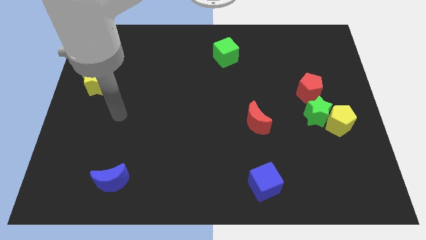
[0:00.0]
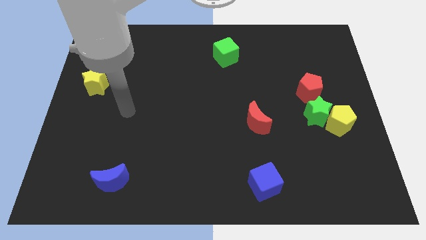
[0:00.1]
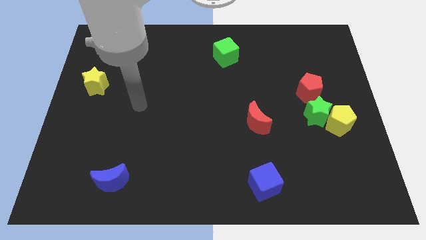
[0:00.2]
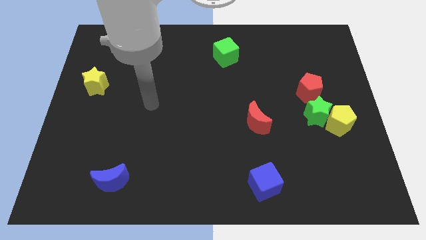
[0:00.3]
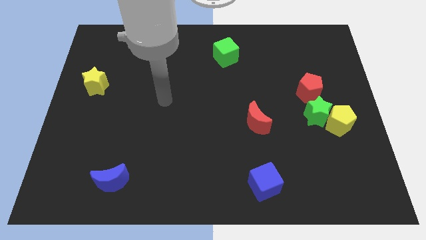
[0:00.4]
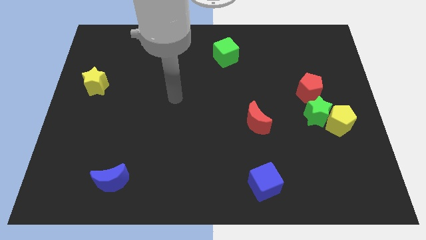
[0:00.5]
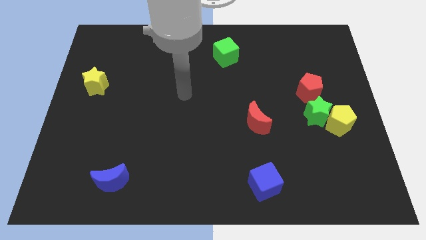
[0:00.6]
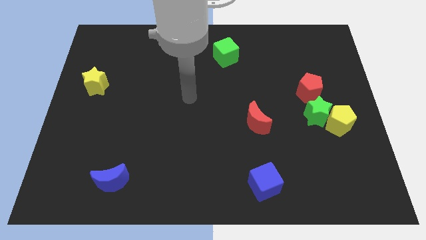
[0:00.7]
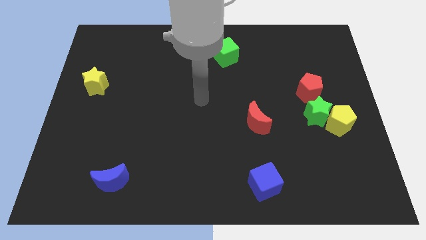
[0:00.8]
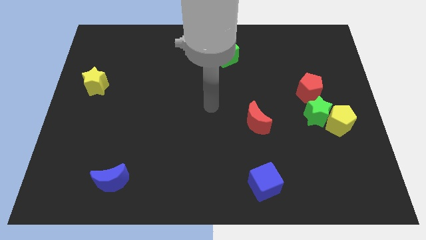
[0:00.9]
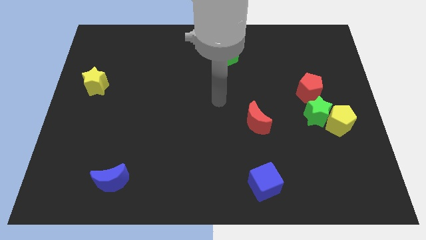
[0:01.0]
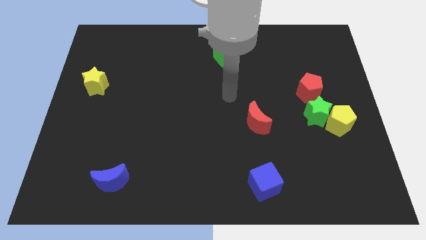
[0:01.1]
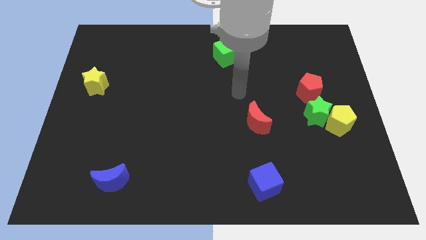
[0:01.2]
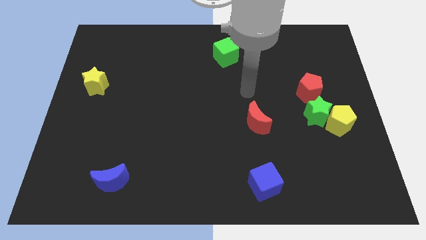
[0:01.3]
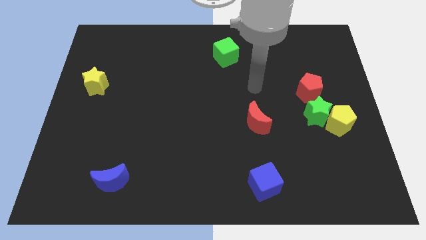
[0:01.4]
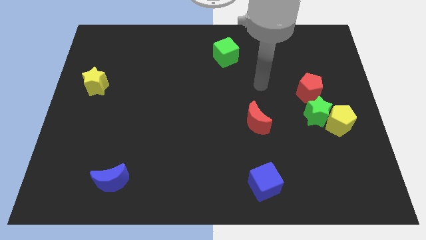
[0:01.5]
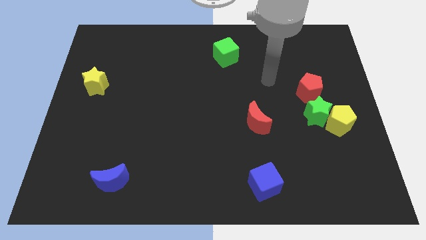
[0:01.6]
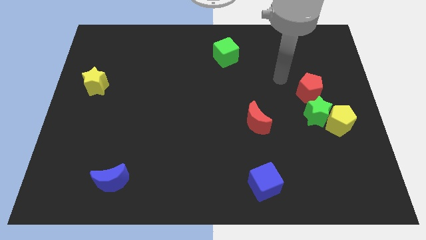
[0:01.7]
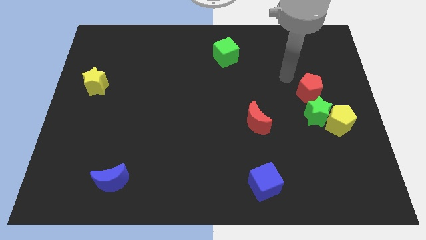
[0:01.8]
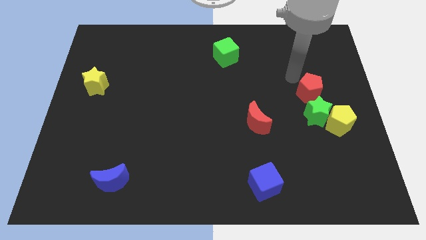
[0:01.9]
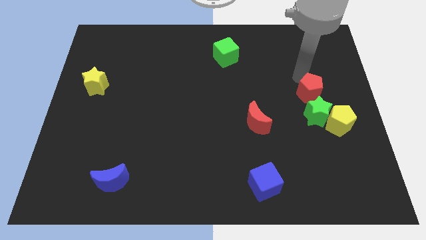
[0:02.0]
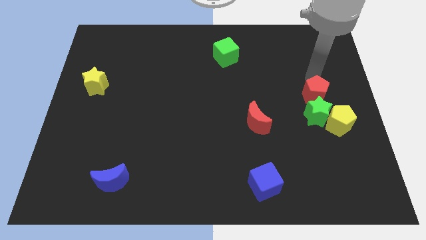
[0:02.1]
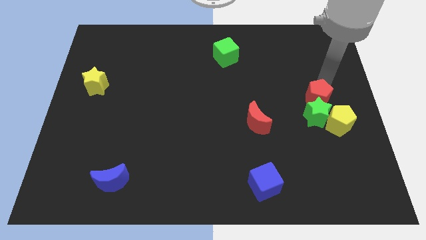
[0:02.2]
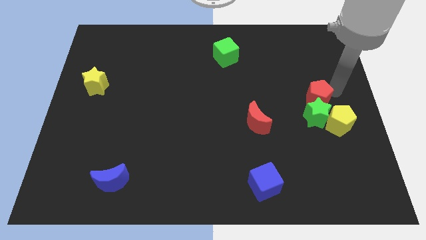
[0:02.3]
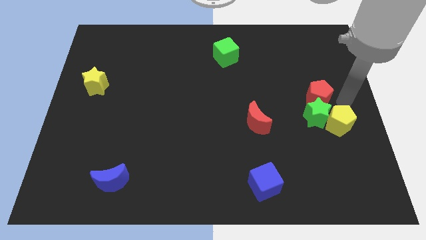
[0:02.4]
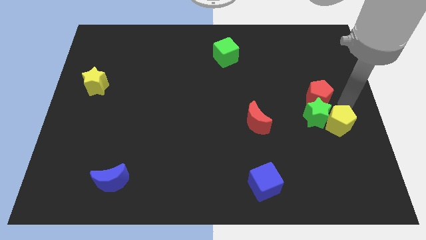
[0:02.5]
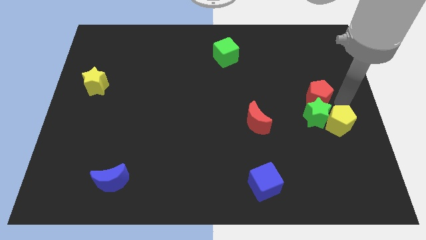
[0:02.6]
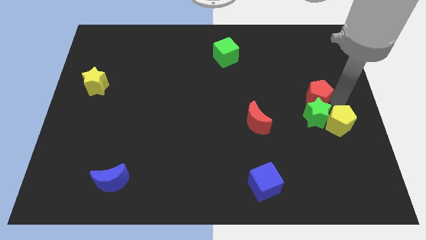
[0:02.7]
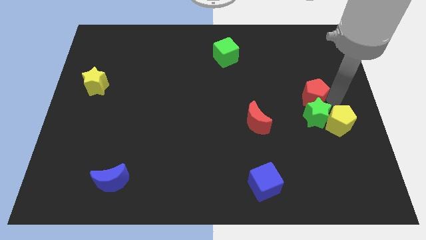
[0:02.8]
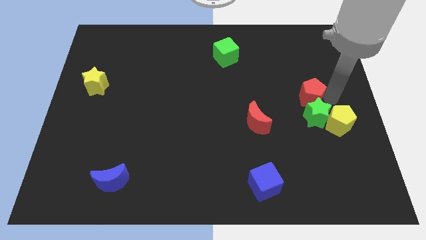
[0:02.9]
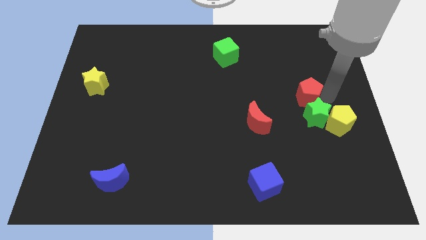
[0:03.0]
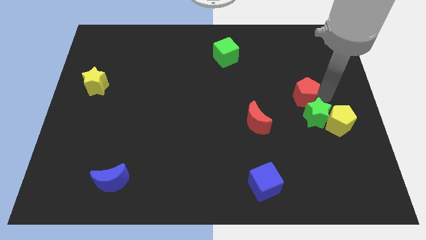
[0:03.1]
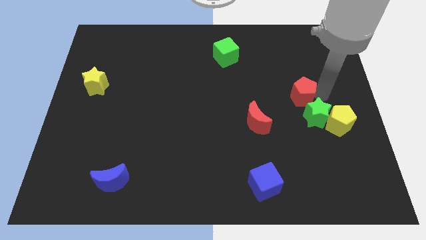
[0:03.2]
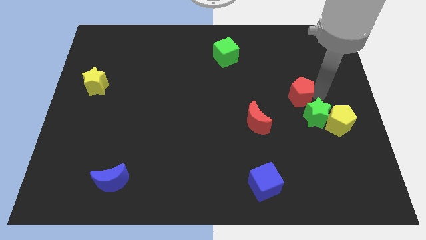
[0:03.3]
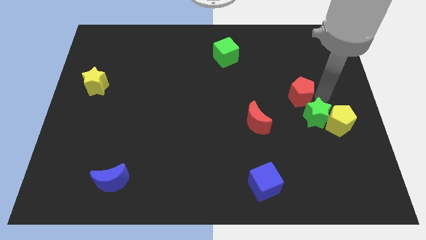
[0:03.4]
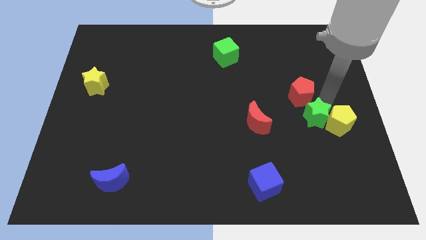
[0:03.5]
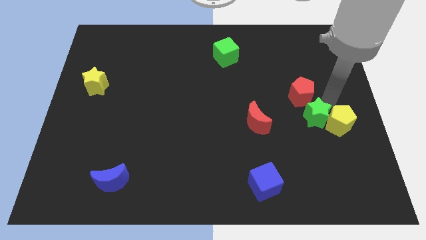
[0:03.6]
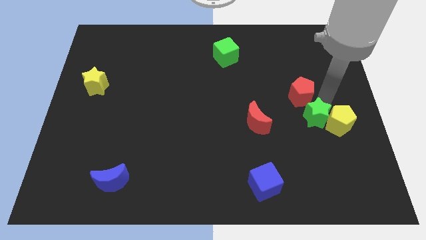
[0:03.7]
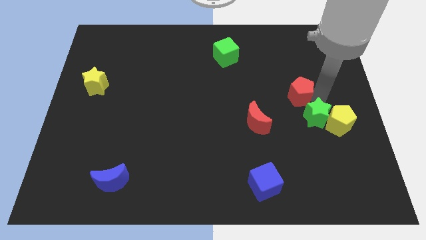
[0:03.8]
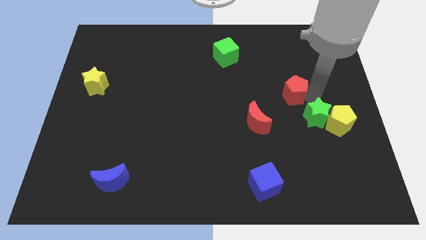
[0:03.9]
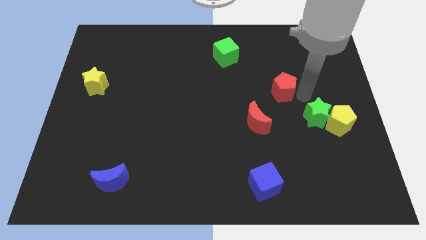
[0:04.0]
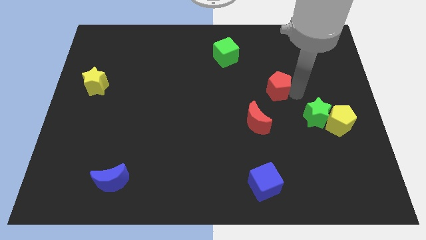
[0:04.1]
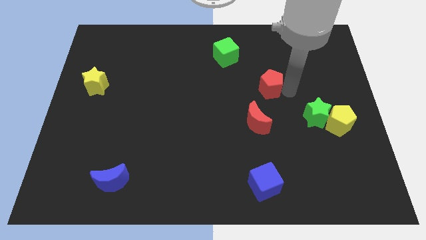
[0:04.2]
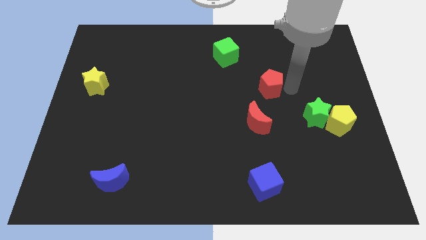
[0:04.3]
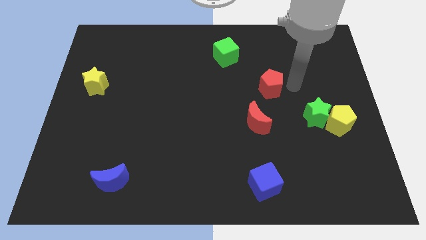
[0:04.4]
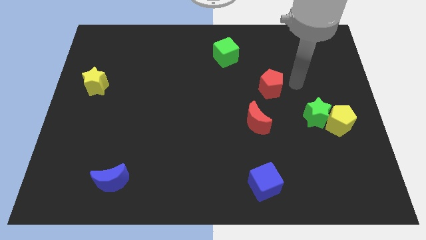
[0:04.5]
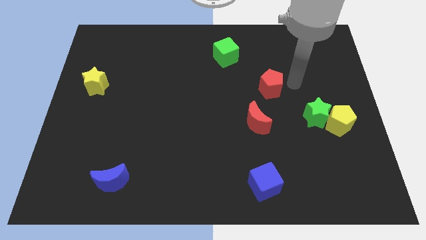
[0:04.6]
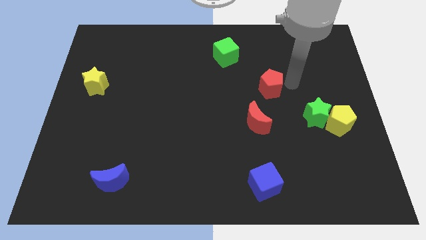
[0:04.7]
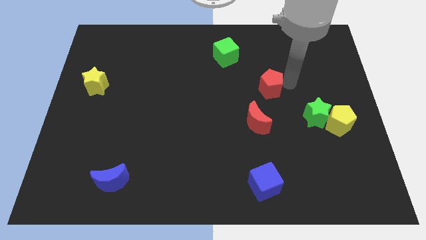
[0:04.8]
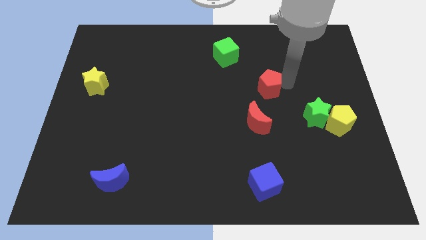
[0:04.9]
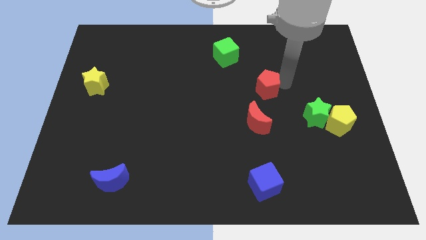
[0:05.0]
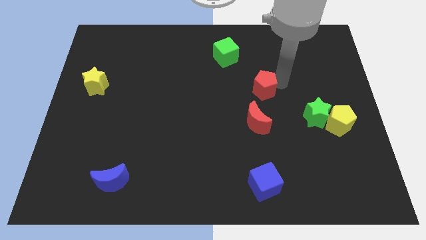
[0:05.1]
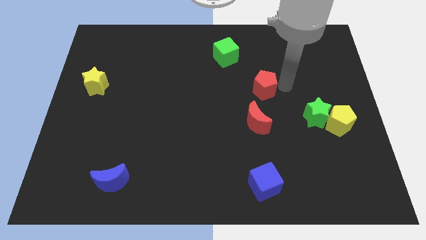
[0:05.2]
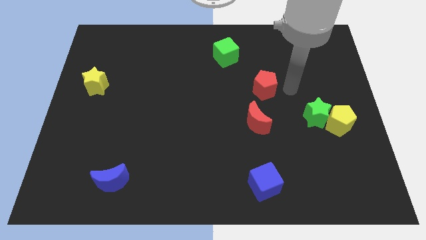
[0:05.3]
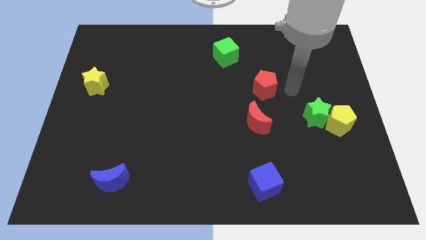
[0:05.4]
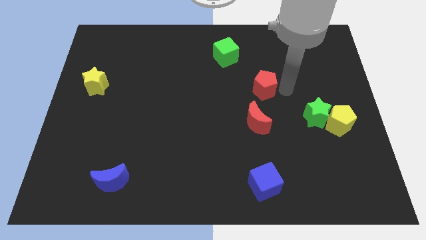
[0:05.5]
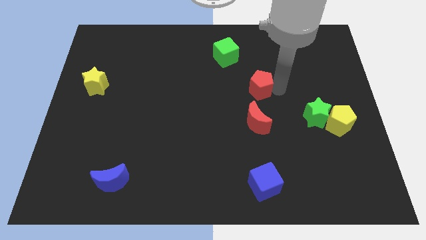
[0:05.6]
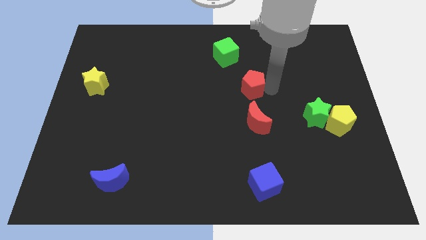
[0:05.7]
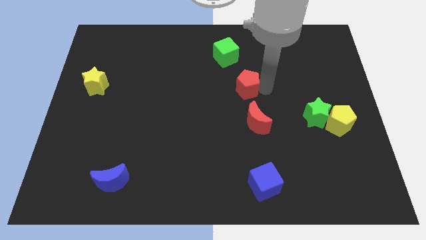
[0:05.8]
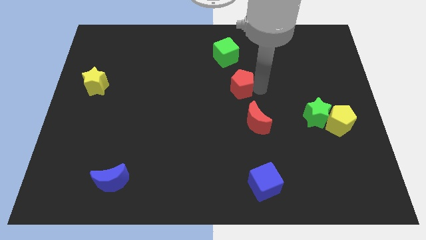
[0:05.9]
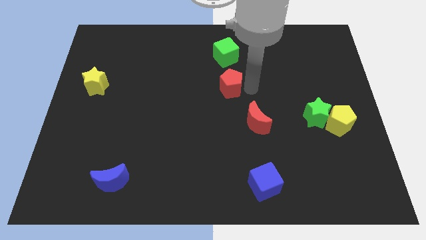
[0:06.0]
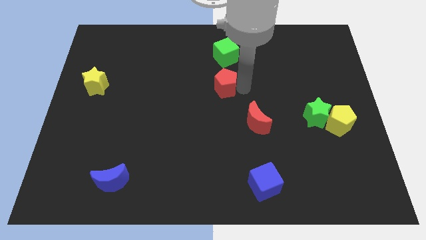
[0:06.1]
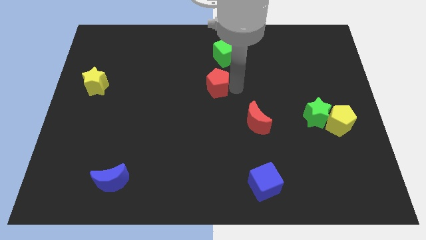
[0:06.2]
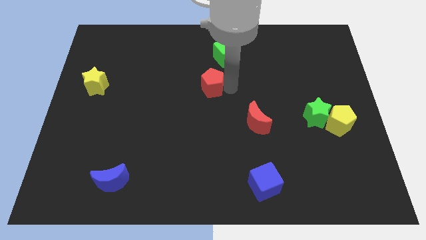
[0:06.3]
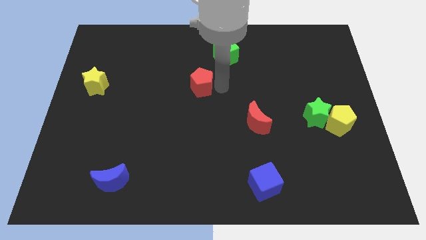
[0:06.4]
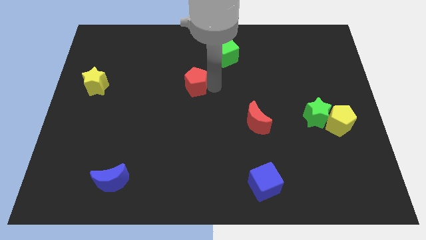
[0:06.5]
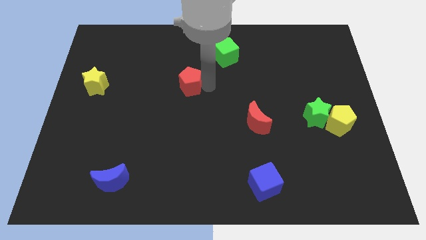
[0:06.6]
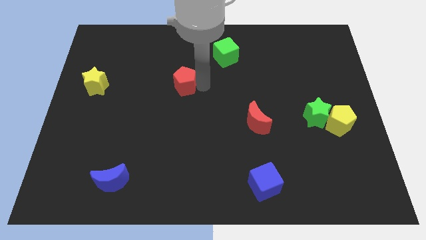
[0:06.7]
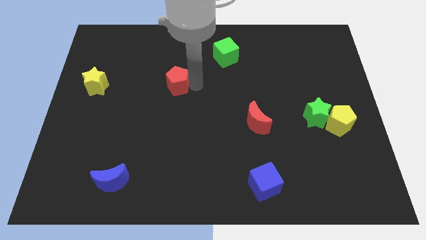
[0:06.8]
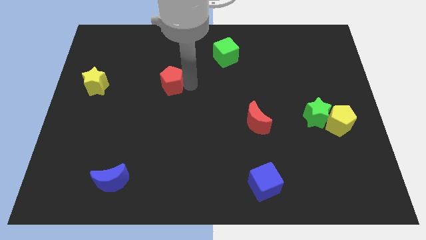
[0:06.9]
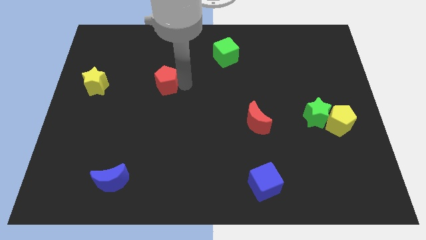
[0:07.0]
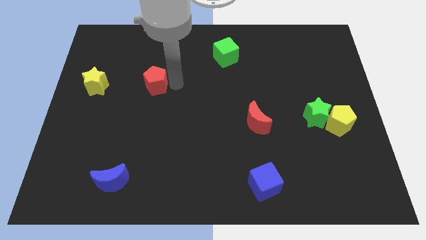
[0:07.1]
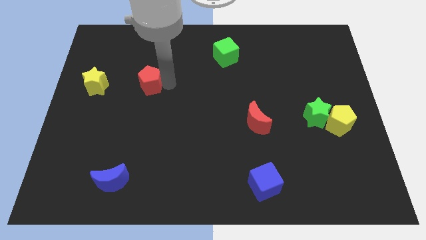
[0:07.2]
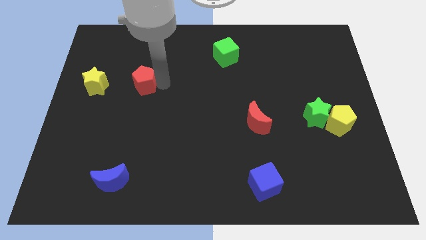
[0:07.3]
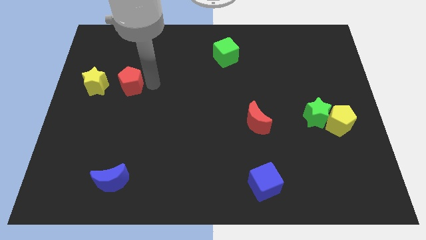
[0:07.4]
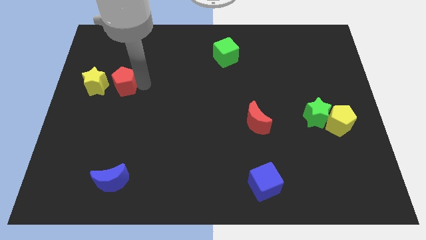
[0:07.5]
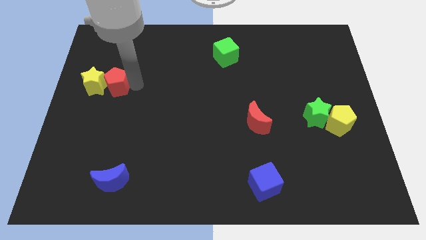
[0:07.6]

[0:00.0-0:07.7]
put the red pentagon close to the yellow star
